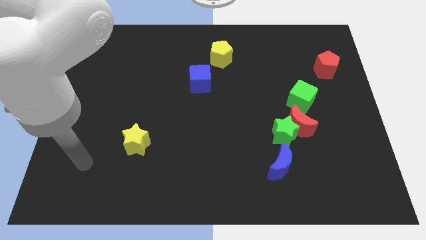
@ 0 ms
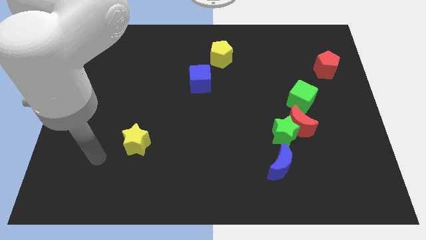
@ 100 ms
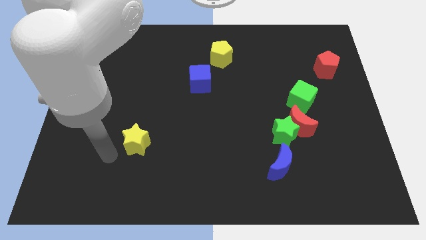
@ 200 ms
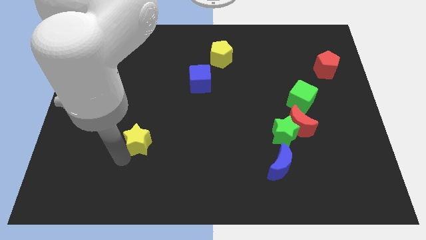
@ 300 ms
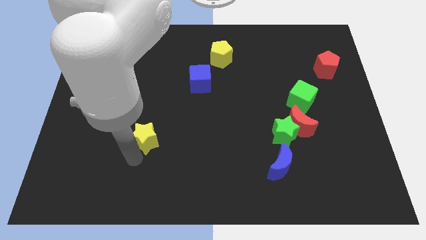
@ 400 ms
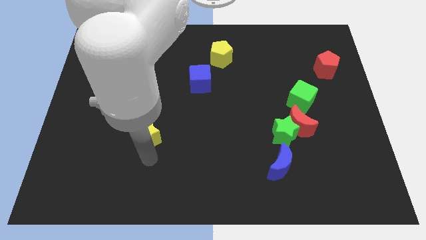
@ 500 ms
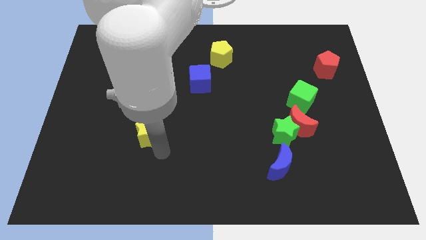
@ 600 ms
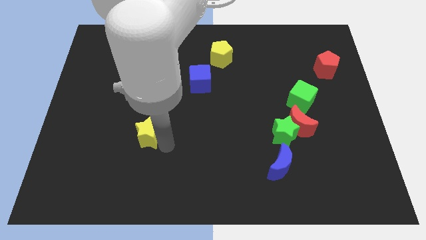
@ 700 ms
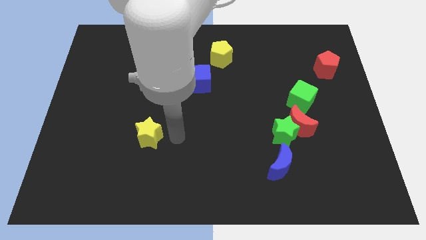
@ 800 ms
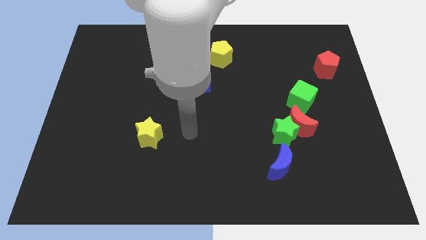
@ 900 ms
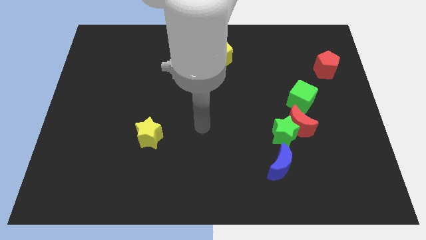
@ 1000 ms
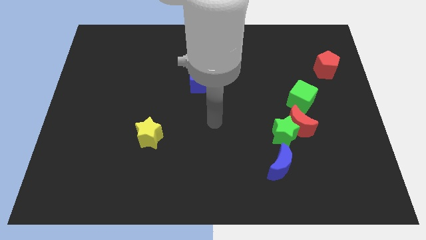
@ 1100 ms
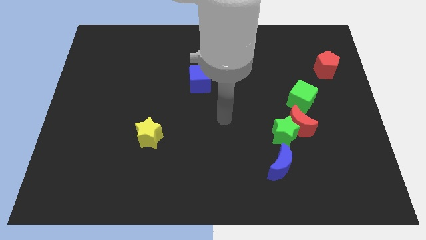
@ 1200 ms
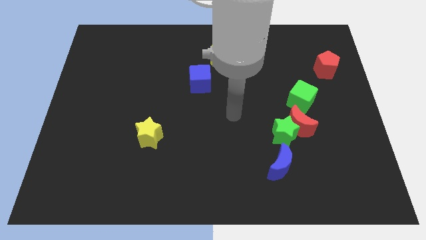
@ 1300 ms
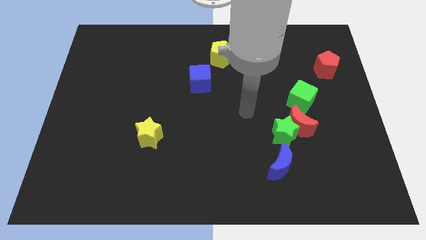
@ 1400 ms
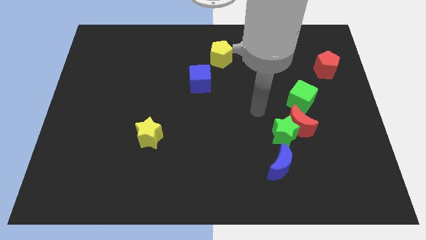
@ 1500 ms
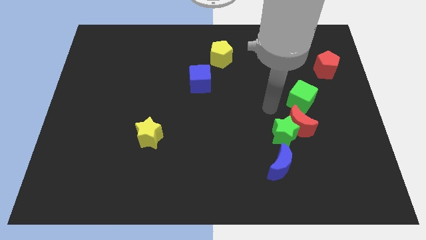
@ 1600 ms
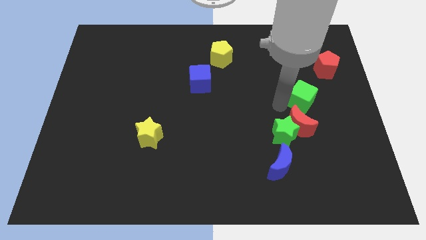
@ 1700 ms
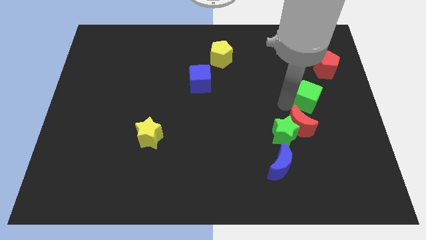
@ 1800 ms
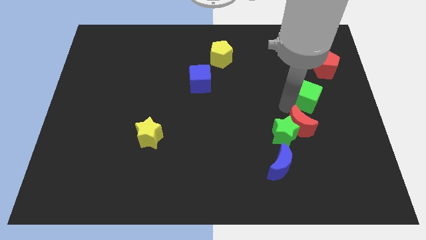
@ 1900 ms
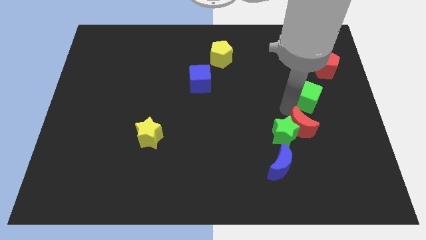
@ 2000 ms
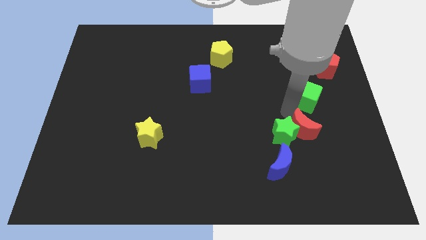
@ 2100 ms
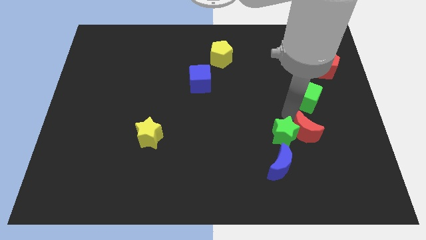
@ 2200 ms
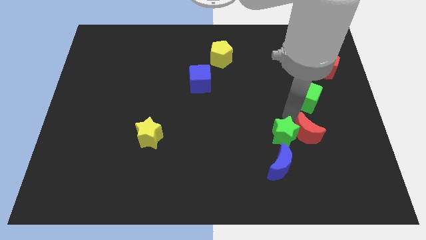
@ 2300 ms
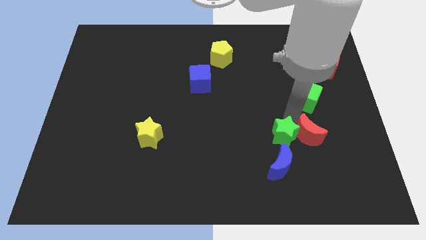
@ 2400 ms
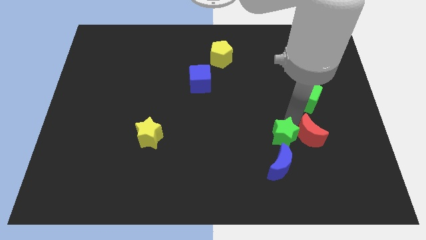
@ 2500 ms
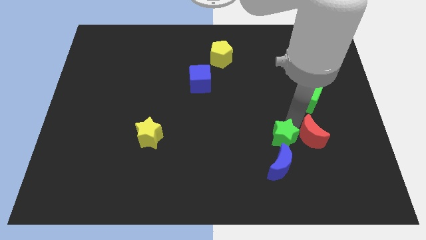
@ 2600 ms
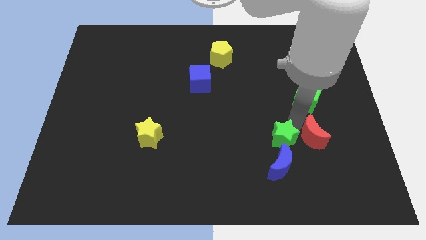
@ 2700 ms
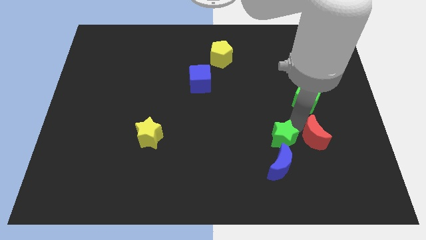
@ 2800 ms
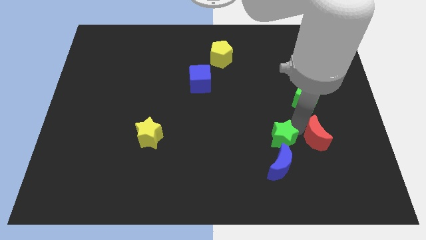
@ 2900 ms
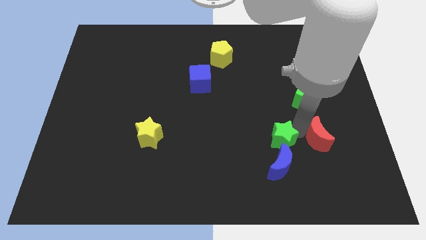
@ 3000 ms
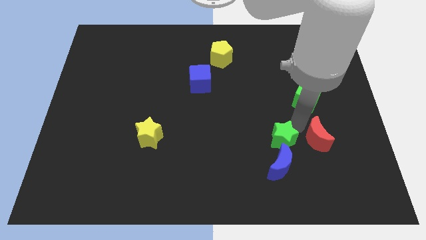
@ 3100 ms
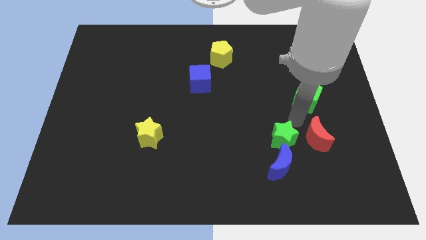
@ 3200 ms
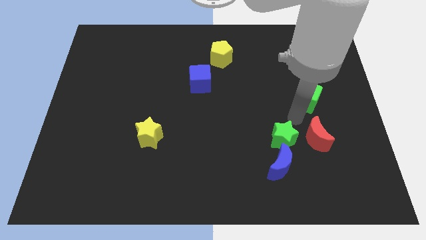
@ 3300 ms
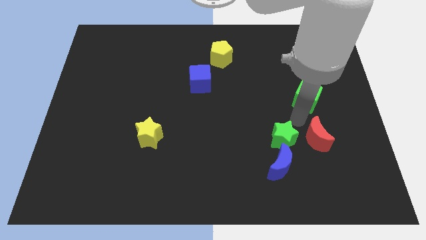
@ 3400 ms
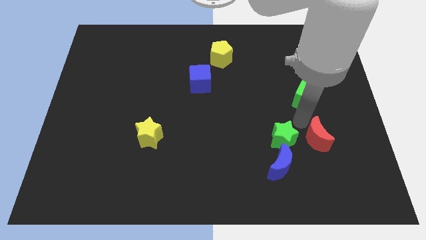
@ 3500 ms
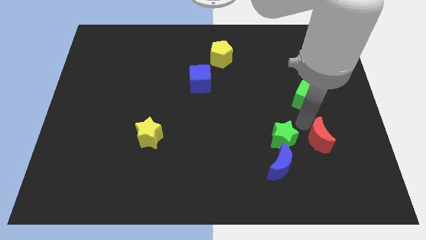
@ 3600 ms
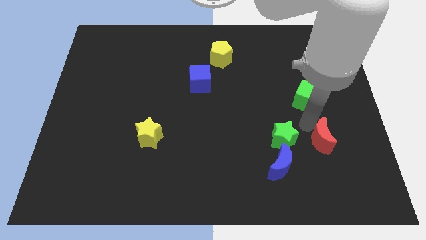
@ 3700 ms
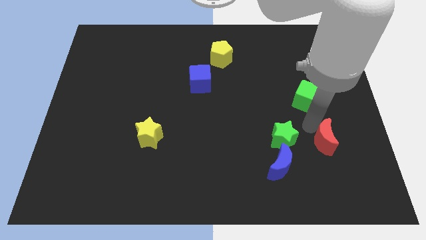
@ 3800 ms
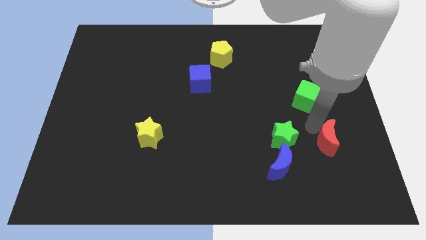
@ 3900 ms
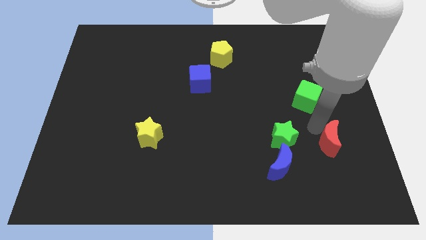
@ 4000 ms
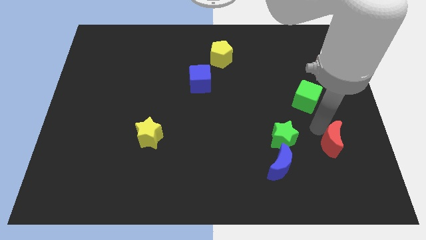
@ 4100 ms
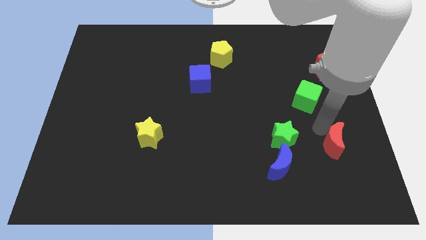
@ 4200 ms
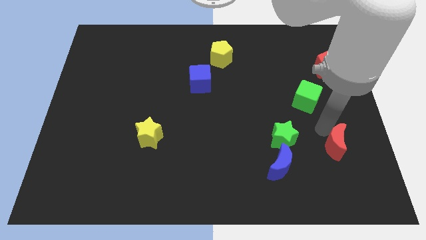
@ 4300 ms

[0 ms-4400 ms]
move the red moon away from the green star and green cube

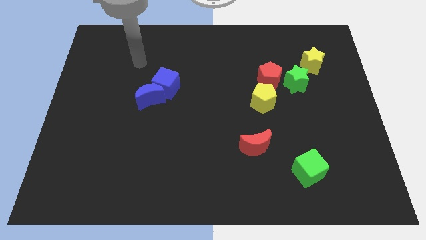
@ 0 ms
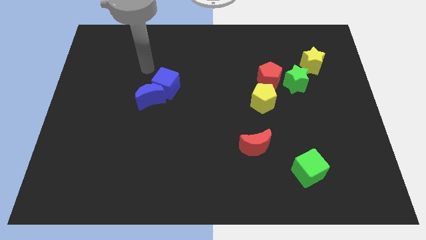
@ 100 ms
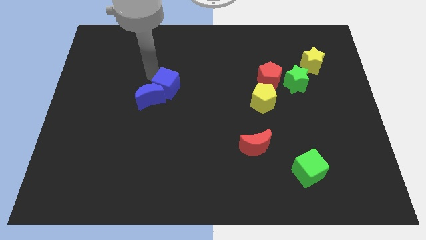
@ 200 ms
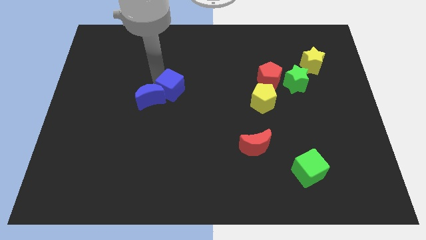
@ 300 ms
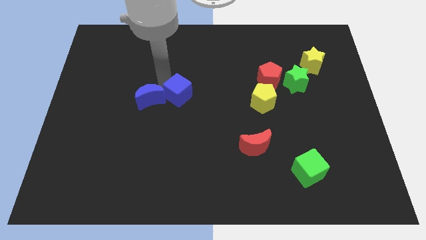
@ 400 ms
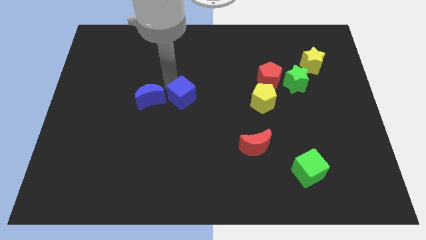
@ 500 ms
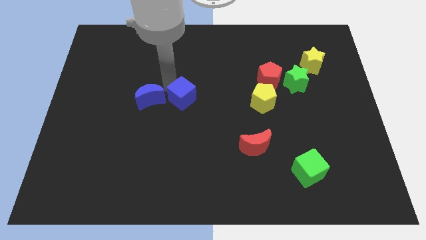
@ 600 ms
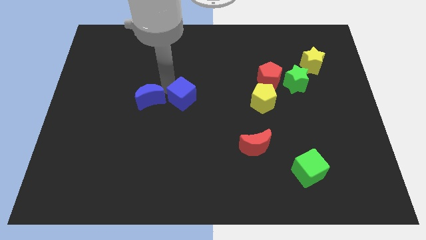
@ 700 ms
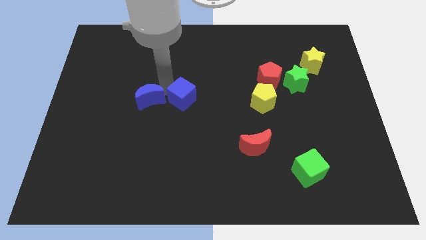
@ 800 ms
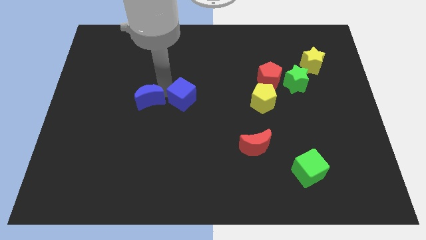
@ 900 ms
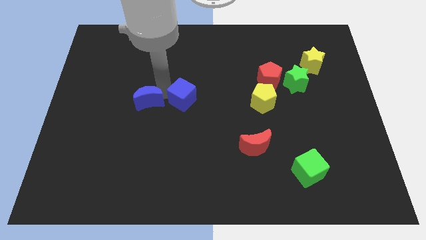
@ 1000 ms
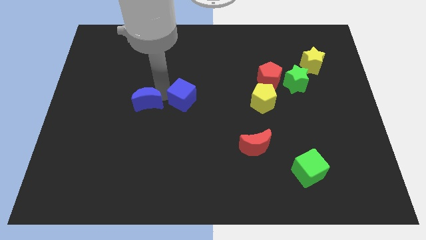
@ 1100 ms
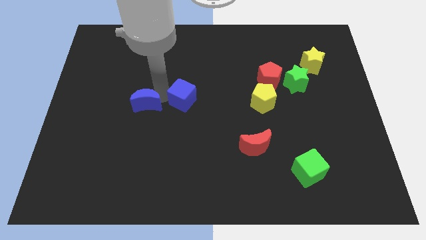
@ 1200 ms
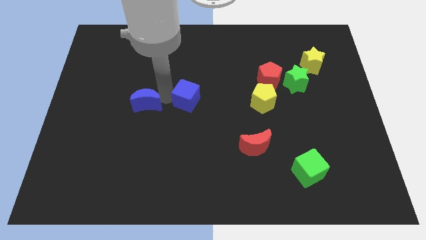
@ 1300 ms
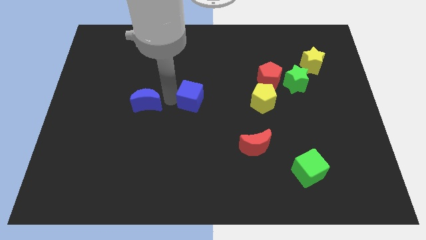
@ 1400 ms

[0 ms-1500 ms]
pull the blue moon apart from the blue cube

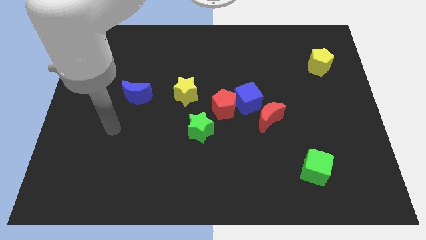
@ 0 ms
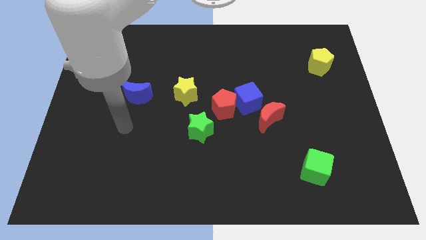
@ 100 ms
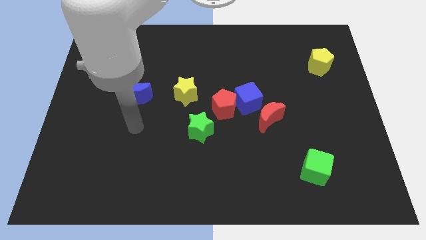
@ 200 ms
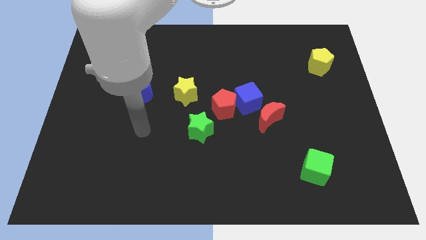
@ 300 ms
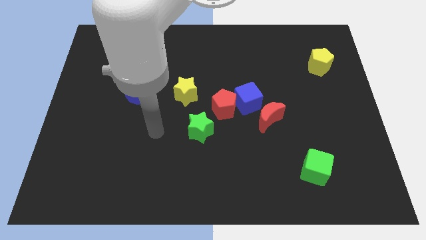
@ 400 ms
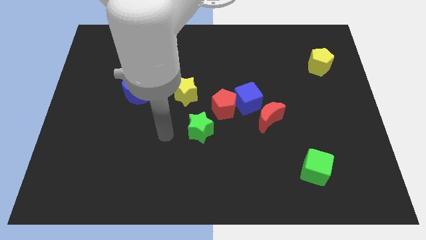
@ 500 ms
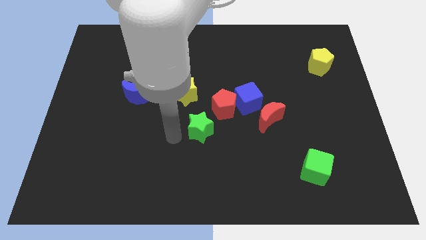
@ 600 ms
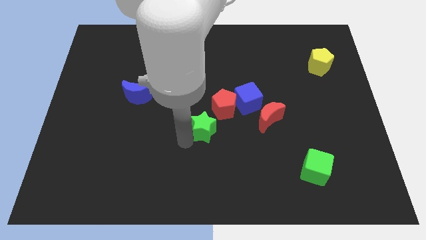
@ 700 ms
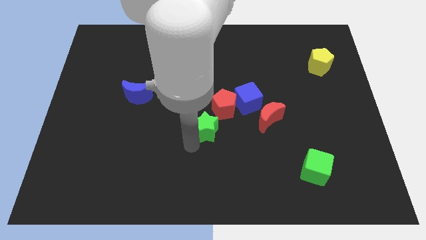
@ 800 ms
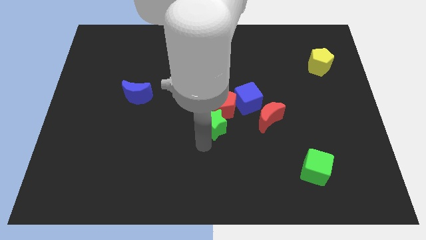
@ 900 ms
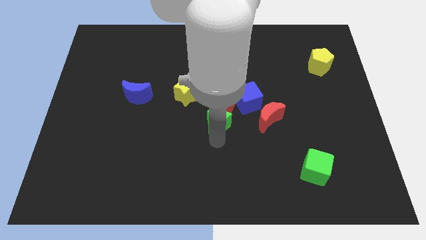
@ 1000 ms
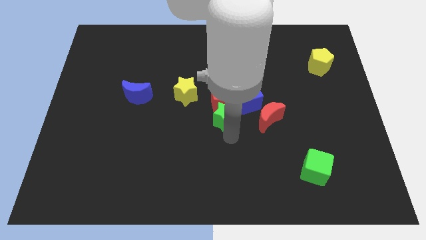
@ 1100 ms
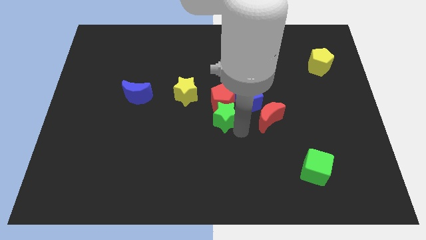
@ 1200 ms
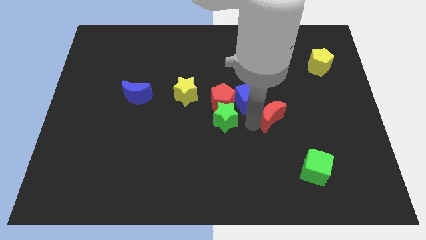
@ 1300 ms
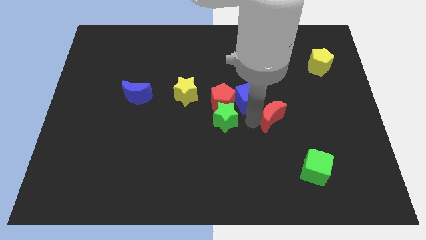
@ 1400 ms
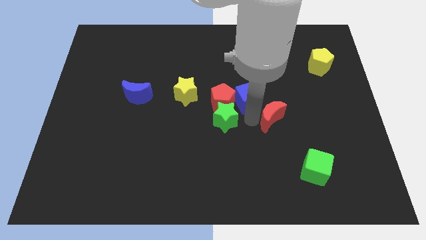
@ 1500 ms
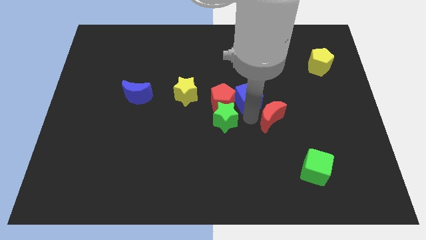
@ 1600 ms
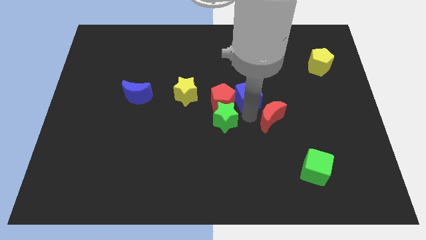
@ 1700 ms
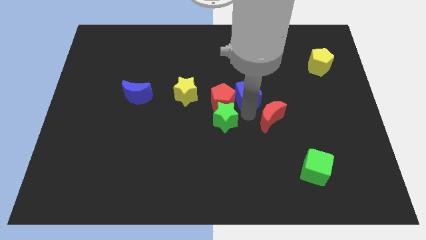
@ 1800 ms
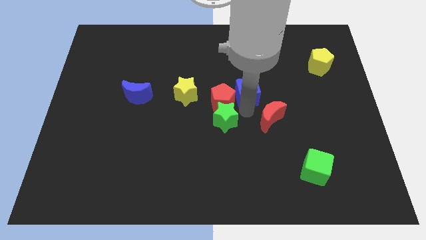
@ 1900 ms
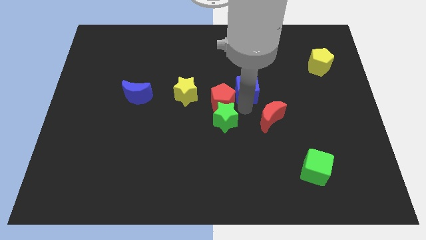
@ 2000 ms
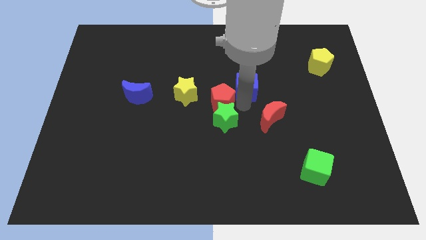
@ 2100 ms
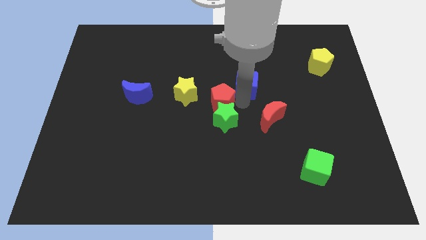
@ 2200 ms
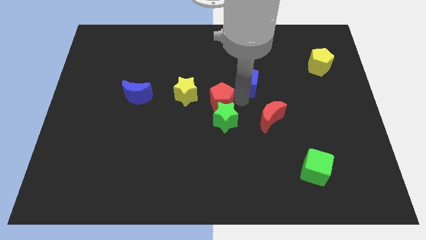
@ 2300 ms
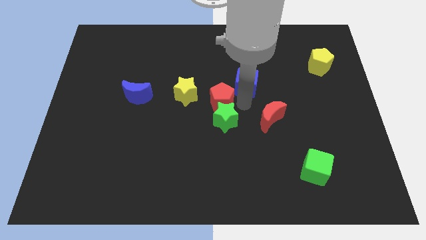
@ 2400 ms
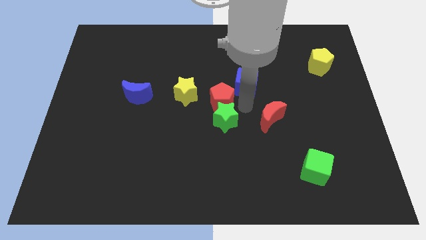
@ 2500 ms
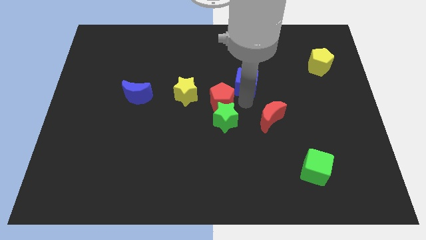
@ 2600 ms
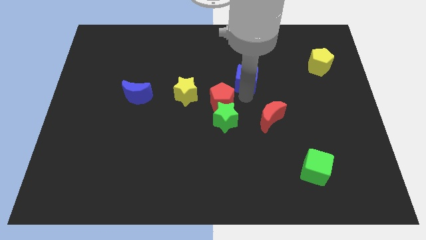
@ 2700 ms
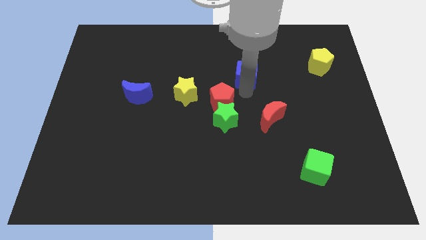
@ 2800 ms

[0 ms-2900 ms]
separate the blue cube from the red pentagon and red moon

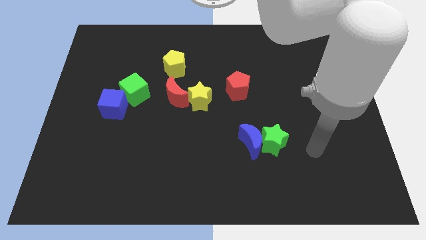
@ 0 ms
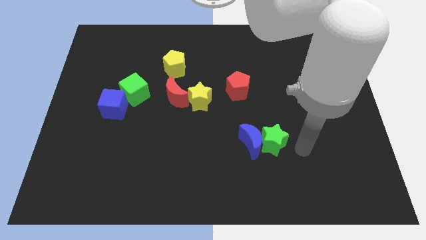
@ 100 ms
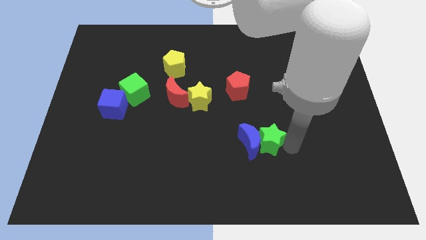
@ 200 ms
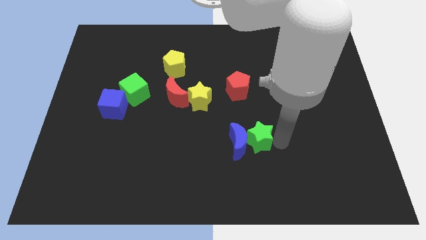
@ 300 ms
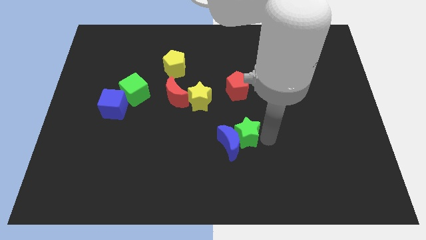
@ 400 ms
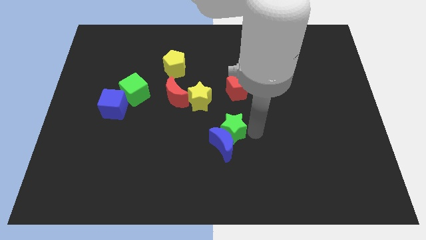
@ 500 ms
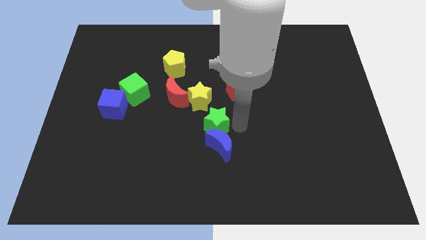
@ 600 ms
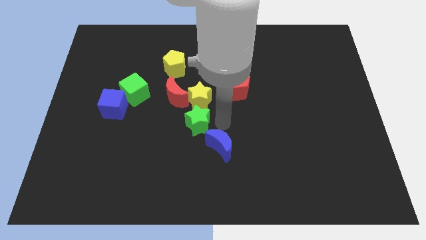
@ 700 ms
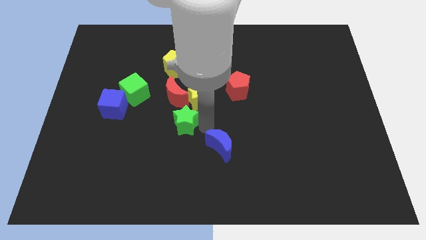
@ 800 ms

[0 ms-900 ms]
pull the blue moon apart from the green star
